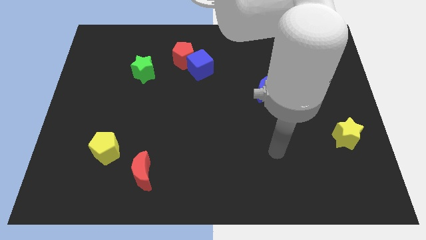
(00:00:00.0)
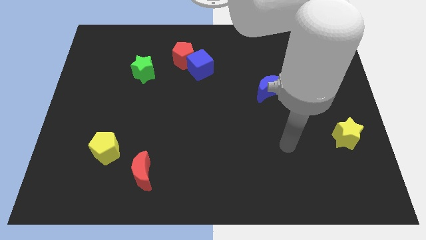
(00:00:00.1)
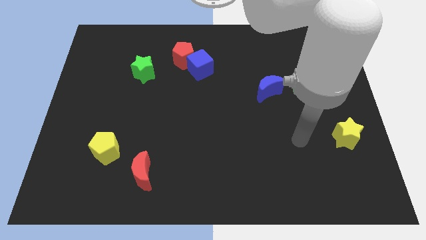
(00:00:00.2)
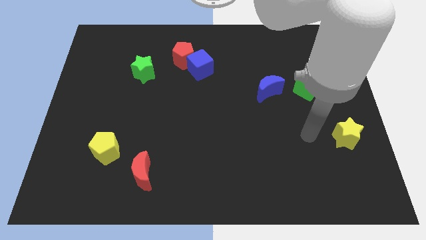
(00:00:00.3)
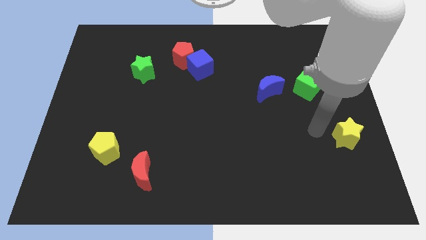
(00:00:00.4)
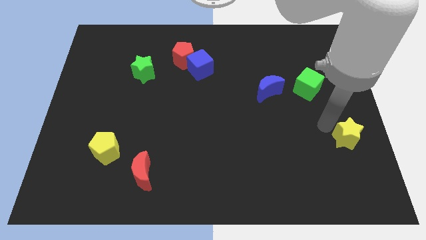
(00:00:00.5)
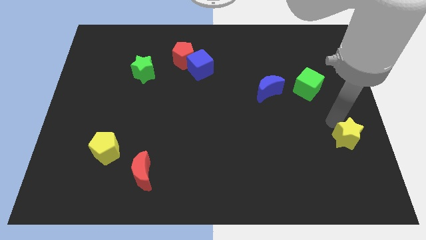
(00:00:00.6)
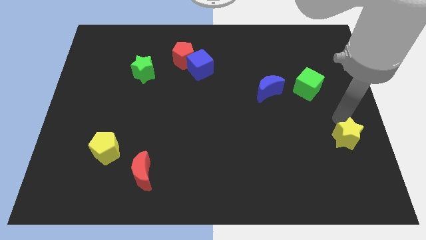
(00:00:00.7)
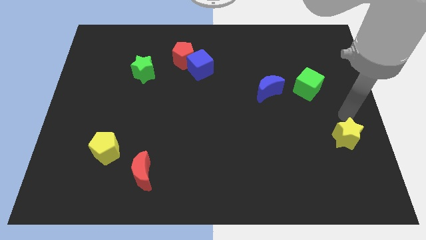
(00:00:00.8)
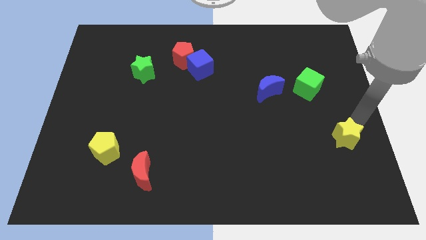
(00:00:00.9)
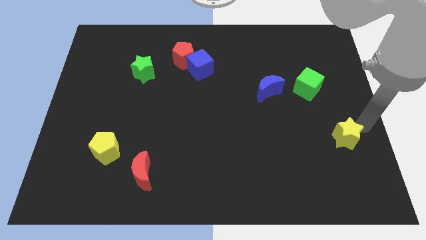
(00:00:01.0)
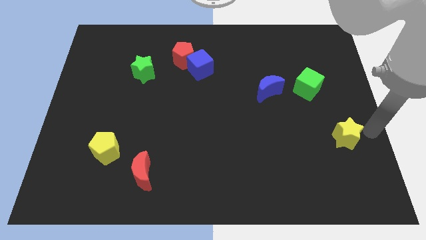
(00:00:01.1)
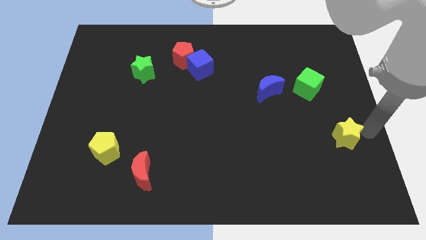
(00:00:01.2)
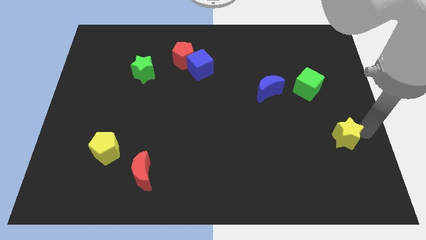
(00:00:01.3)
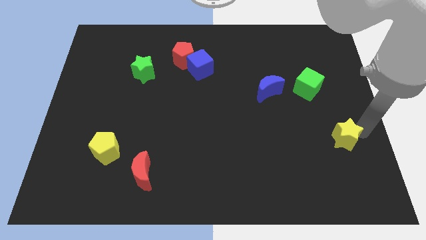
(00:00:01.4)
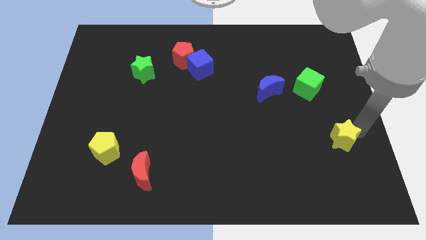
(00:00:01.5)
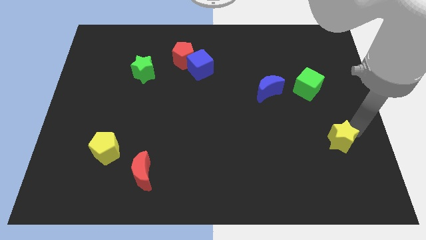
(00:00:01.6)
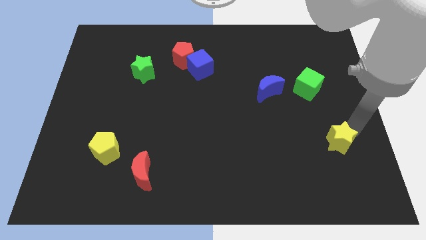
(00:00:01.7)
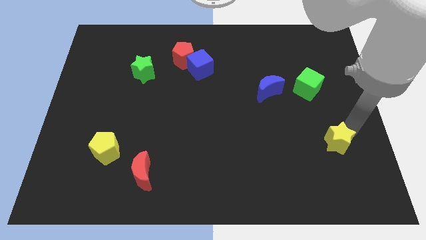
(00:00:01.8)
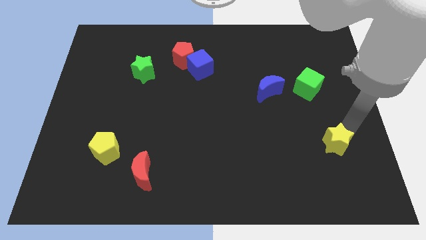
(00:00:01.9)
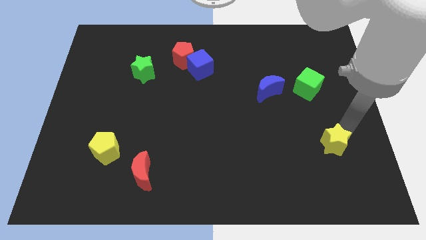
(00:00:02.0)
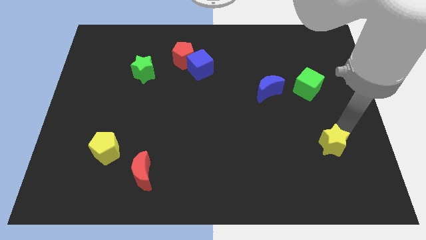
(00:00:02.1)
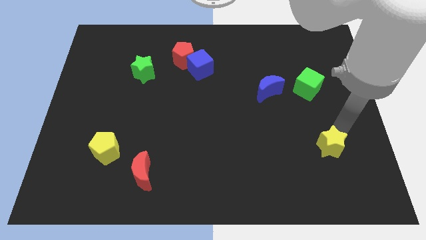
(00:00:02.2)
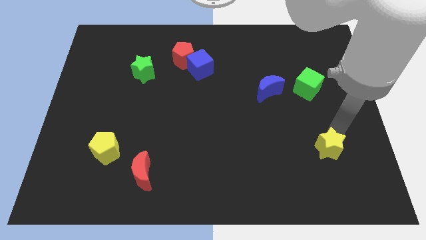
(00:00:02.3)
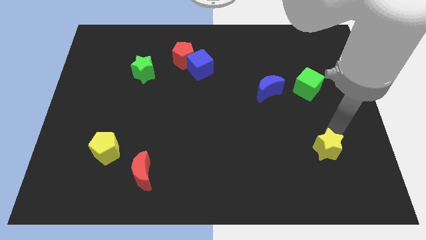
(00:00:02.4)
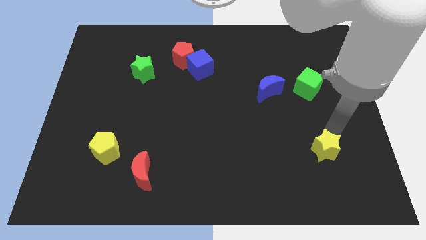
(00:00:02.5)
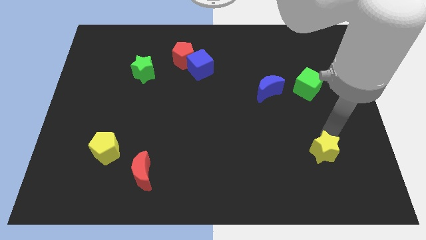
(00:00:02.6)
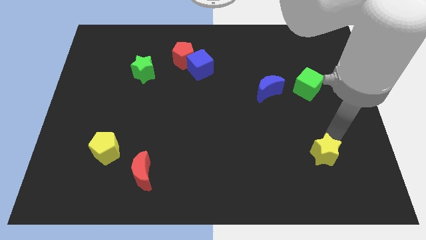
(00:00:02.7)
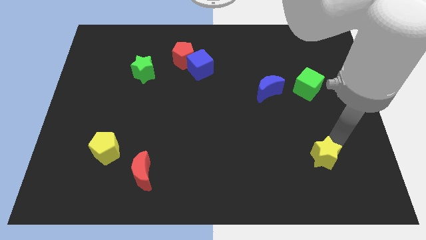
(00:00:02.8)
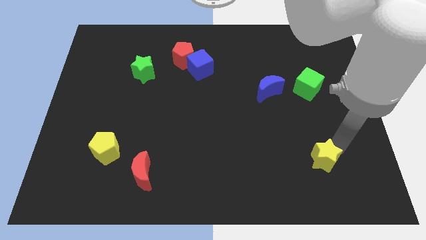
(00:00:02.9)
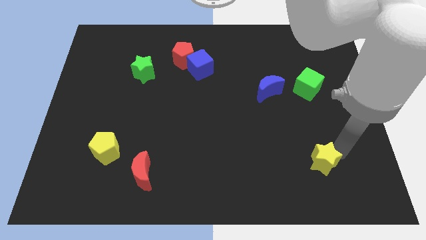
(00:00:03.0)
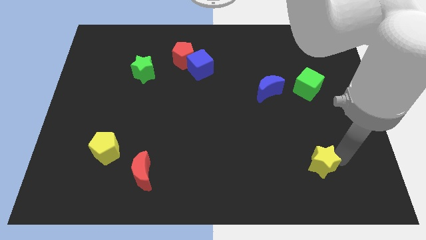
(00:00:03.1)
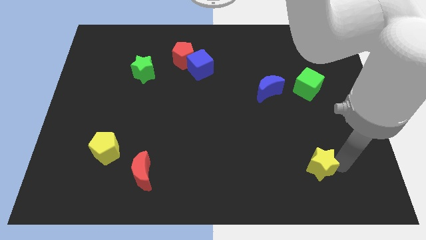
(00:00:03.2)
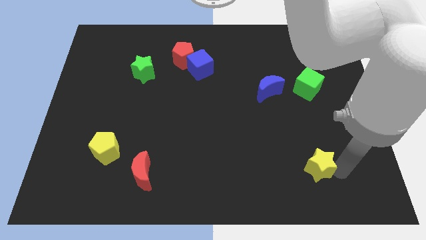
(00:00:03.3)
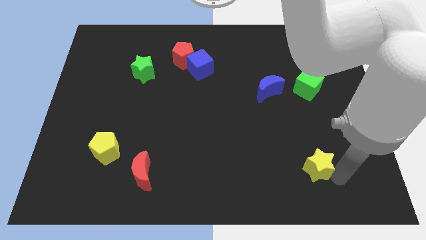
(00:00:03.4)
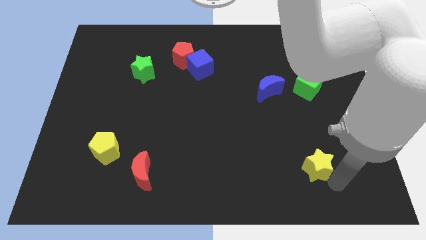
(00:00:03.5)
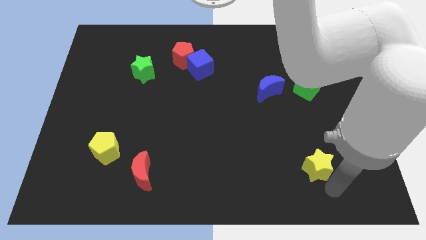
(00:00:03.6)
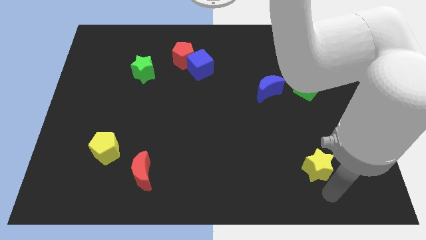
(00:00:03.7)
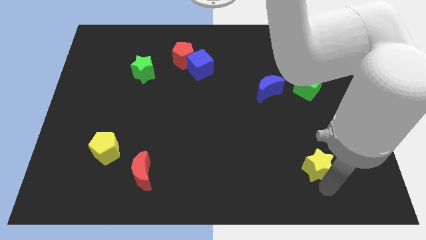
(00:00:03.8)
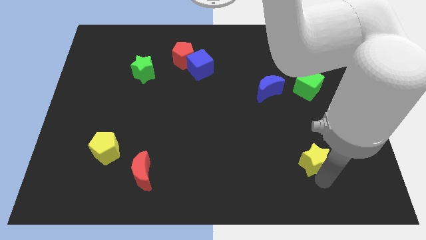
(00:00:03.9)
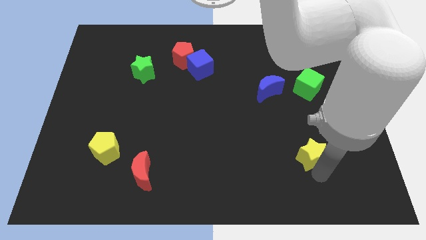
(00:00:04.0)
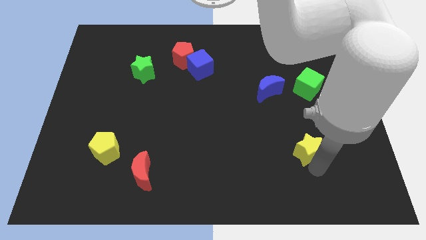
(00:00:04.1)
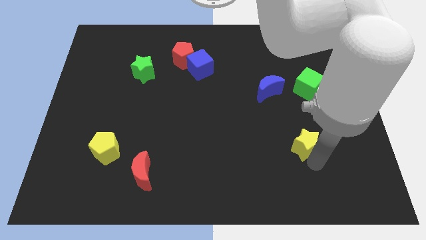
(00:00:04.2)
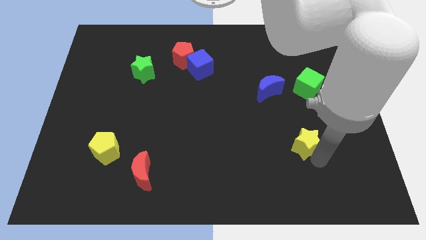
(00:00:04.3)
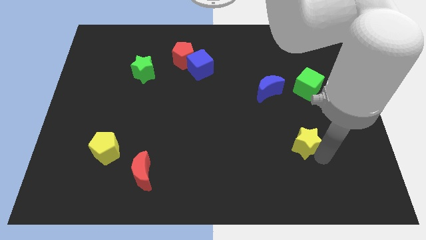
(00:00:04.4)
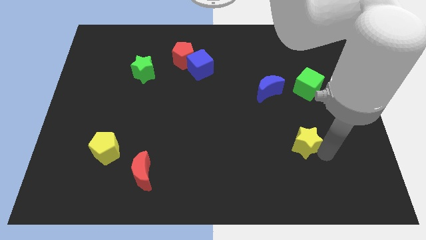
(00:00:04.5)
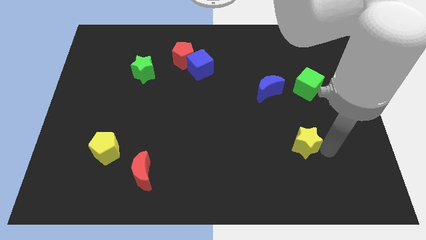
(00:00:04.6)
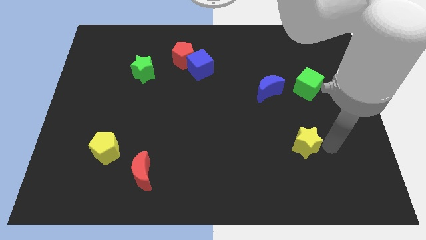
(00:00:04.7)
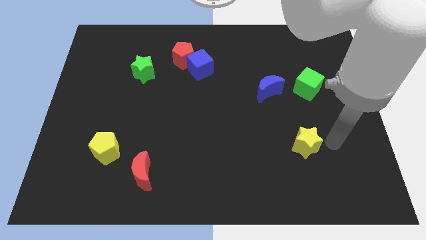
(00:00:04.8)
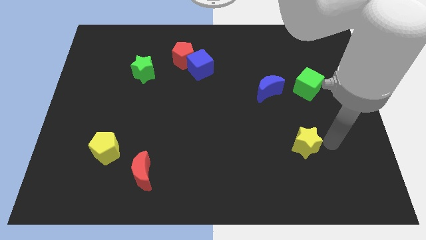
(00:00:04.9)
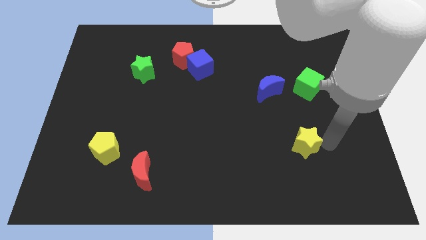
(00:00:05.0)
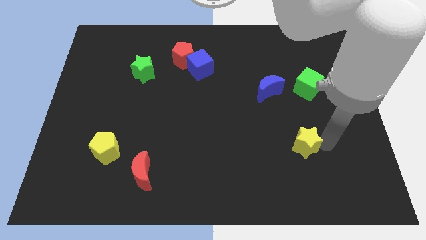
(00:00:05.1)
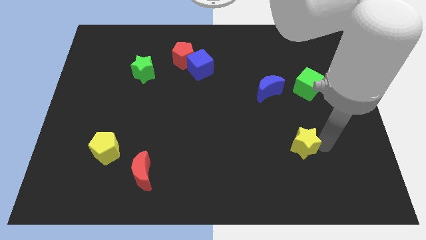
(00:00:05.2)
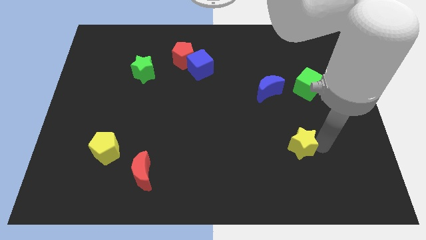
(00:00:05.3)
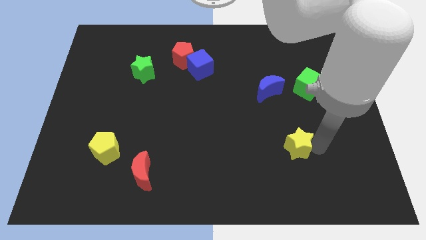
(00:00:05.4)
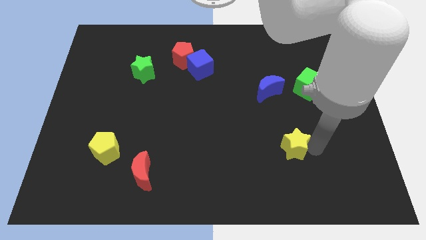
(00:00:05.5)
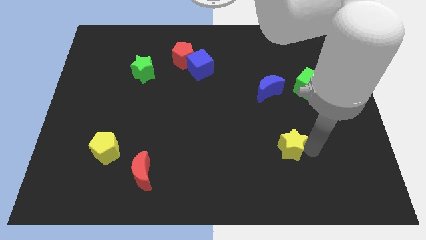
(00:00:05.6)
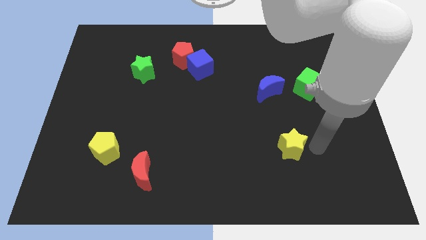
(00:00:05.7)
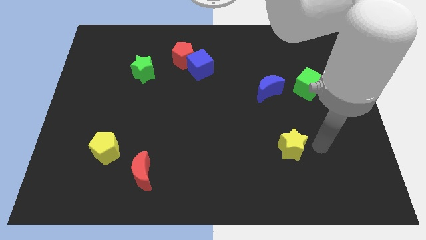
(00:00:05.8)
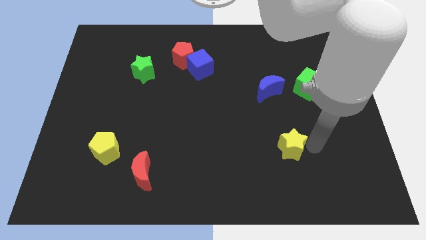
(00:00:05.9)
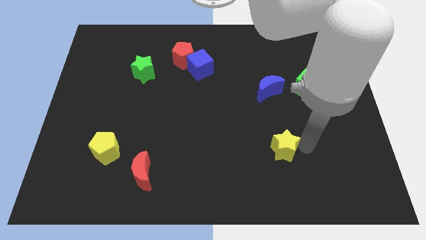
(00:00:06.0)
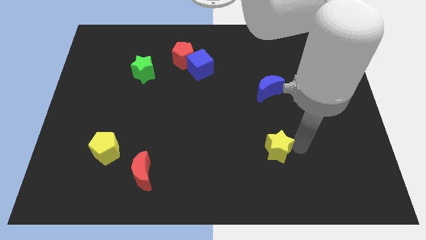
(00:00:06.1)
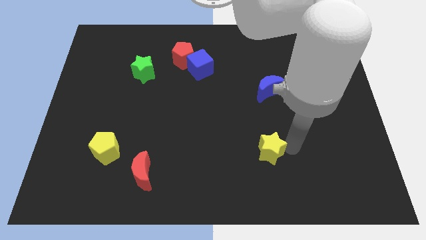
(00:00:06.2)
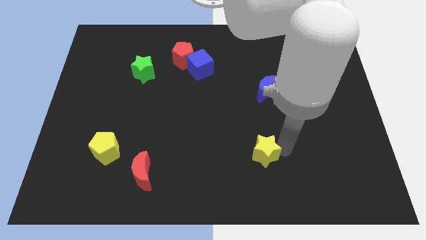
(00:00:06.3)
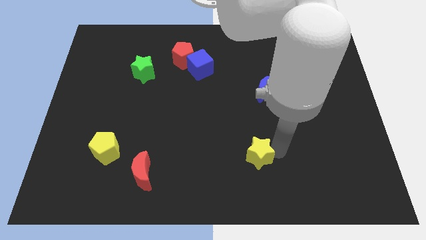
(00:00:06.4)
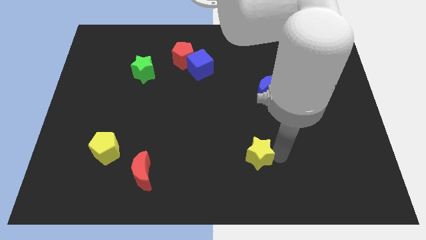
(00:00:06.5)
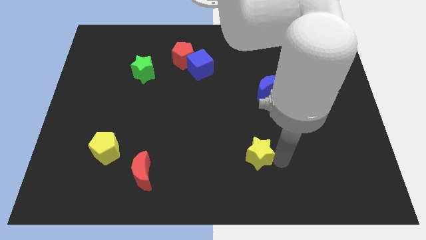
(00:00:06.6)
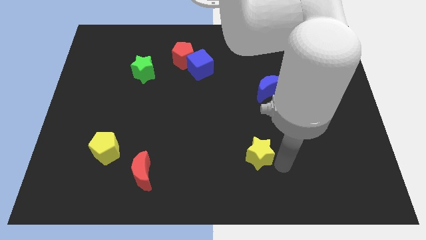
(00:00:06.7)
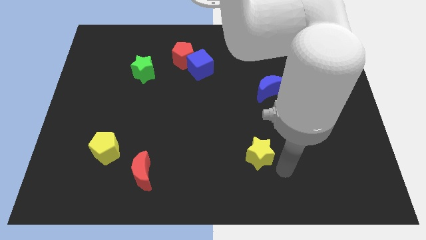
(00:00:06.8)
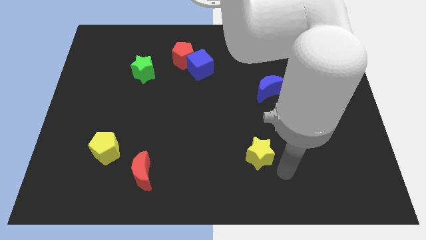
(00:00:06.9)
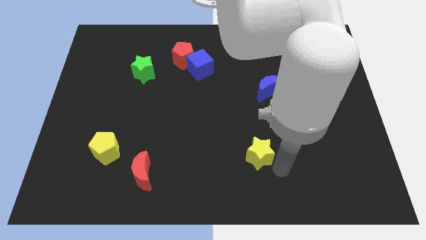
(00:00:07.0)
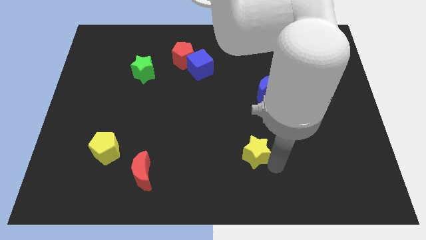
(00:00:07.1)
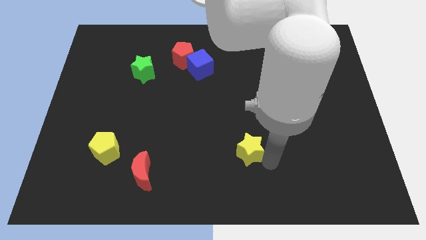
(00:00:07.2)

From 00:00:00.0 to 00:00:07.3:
move the yellow star to the left

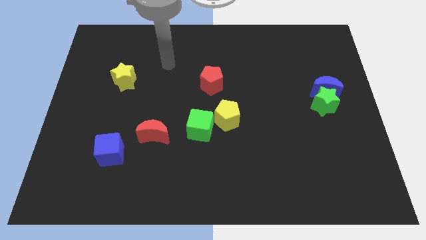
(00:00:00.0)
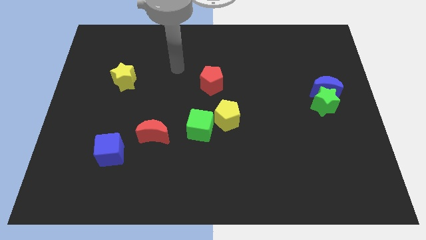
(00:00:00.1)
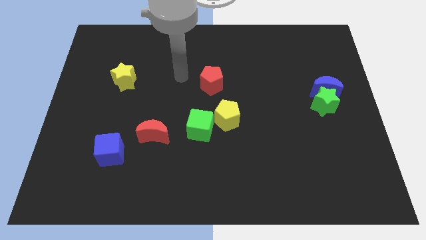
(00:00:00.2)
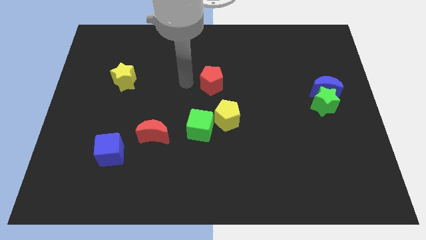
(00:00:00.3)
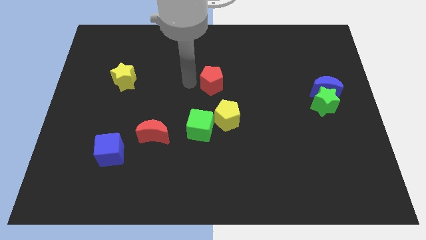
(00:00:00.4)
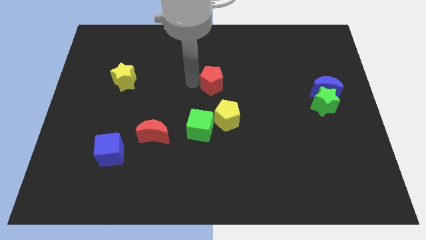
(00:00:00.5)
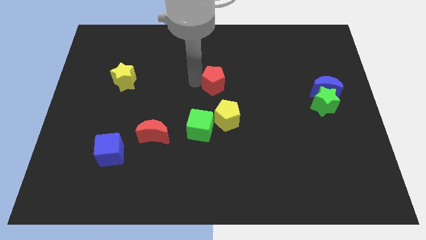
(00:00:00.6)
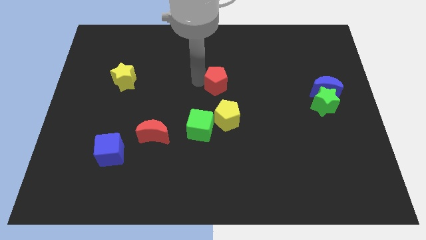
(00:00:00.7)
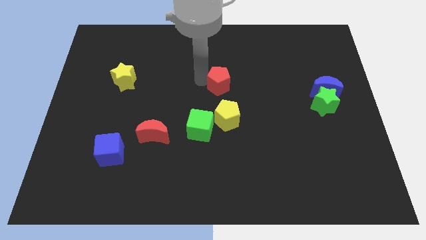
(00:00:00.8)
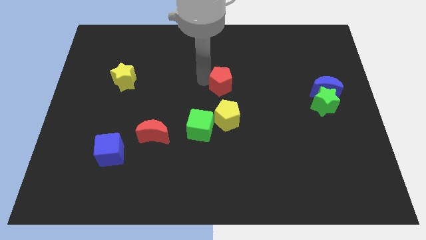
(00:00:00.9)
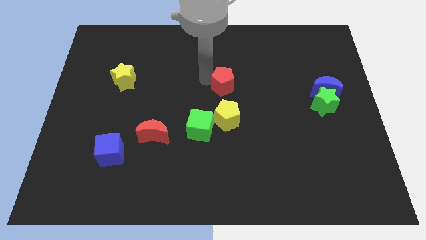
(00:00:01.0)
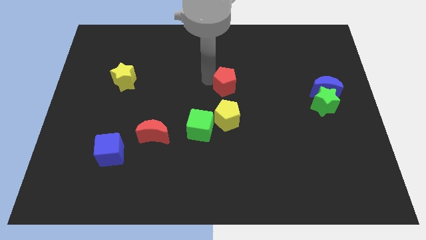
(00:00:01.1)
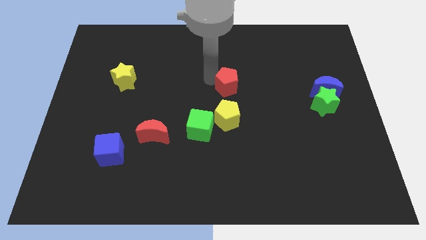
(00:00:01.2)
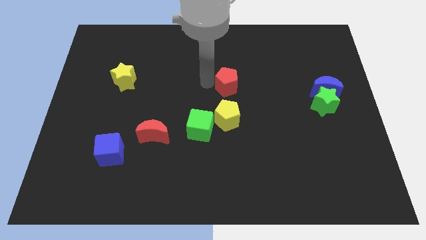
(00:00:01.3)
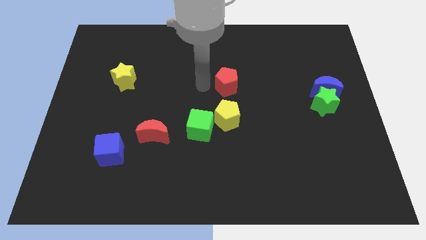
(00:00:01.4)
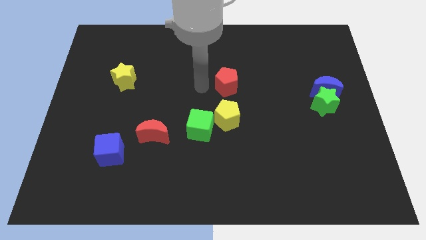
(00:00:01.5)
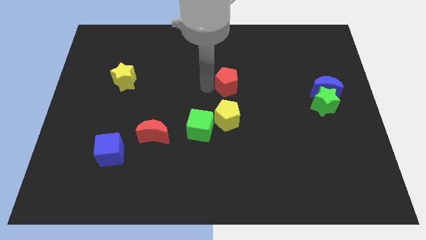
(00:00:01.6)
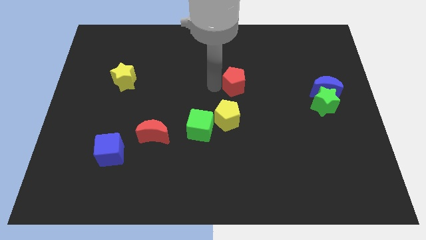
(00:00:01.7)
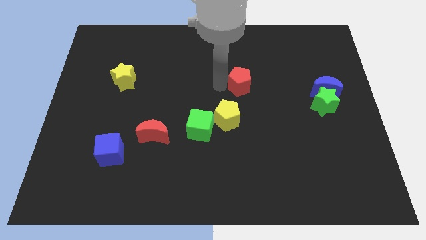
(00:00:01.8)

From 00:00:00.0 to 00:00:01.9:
slide the red pentagon right a little bit
